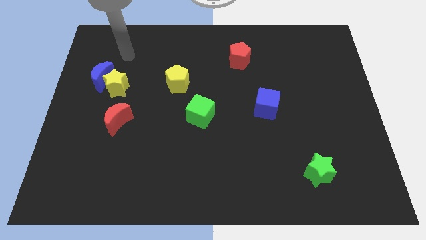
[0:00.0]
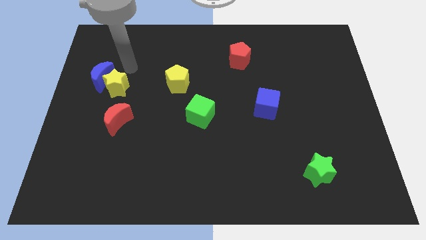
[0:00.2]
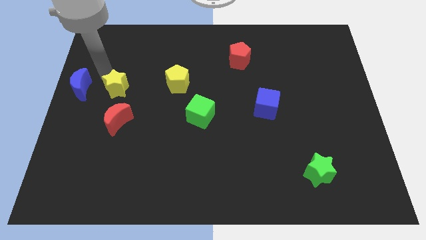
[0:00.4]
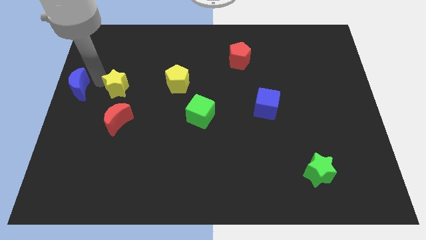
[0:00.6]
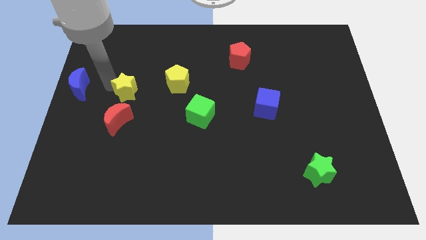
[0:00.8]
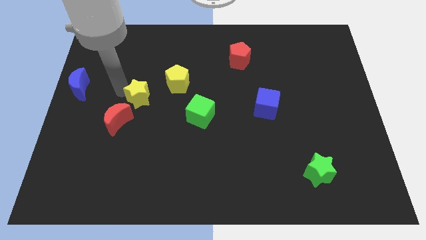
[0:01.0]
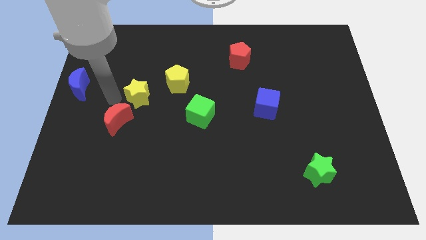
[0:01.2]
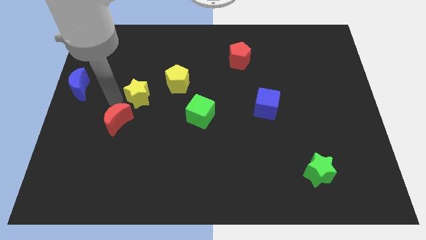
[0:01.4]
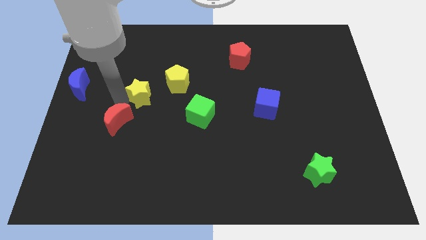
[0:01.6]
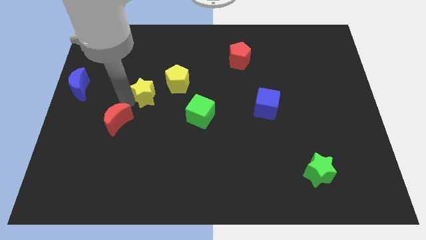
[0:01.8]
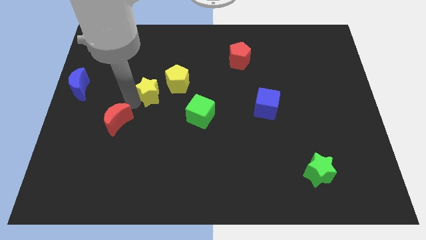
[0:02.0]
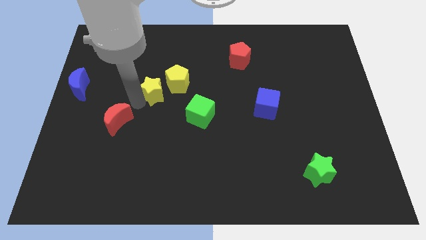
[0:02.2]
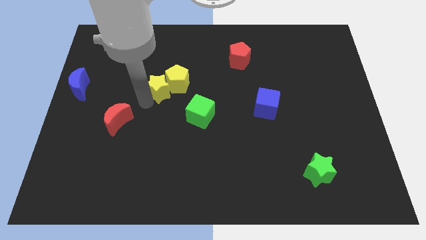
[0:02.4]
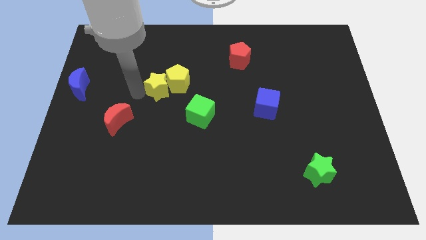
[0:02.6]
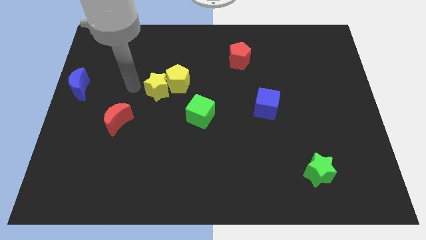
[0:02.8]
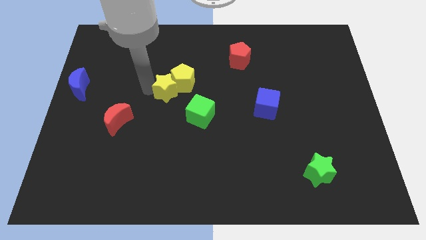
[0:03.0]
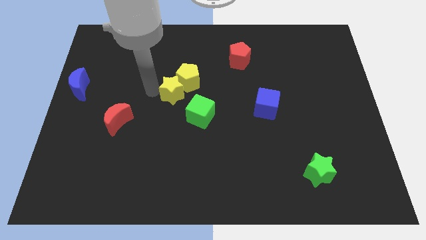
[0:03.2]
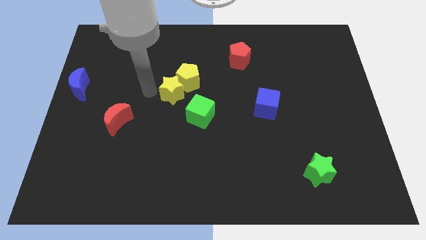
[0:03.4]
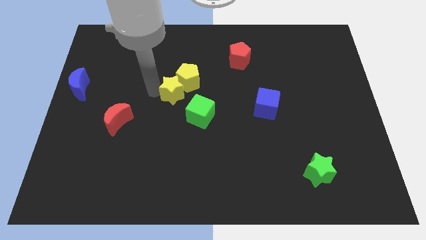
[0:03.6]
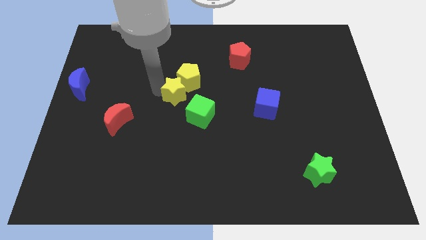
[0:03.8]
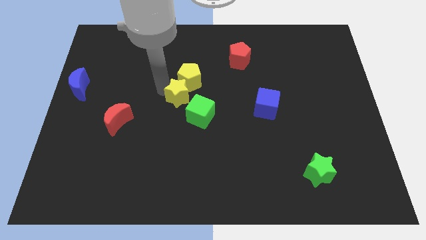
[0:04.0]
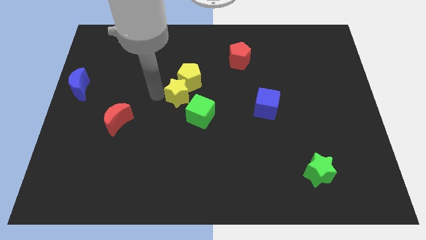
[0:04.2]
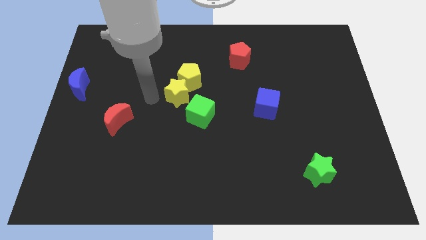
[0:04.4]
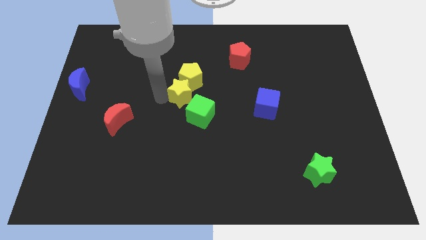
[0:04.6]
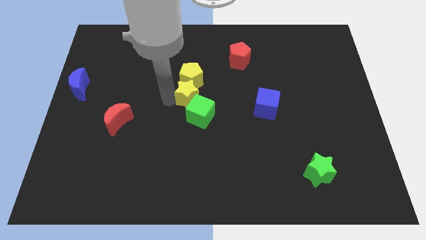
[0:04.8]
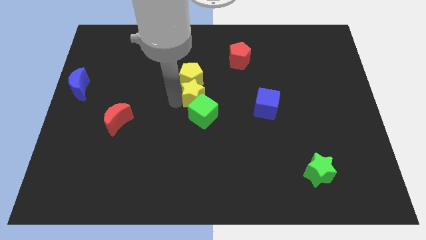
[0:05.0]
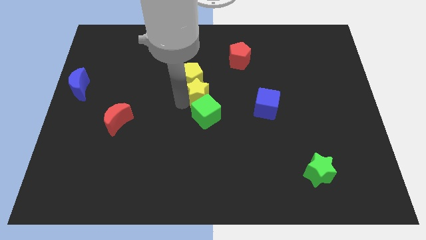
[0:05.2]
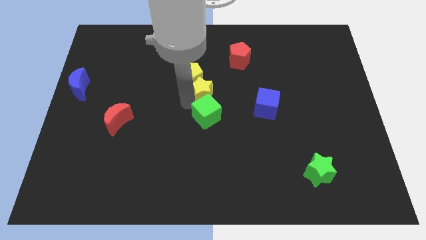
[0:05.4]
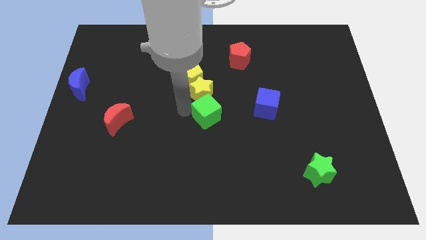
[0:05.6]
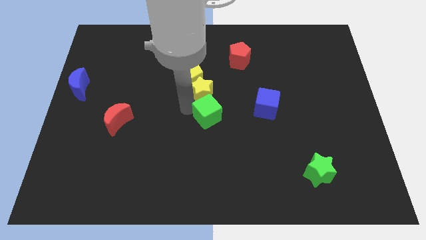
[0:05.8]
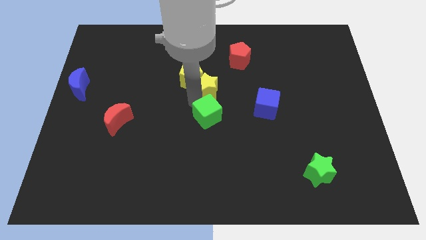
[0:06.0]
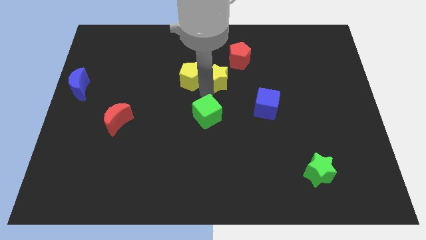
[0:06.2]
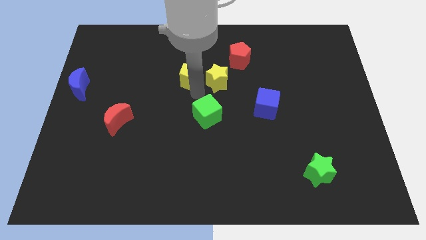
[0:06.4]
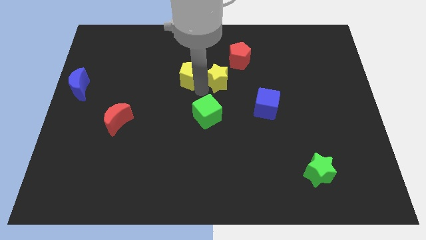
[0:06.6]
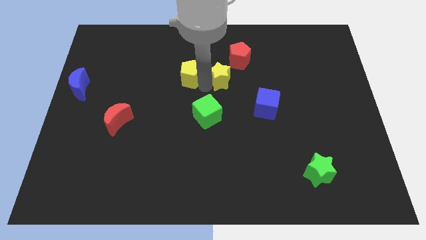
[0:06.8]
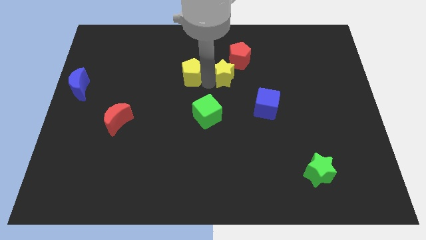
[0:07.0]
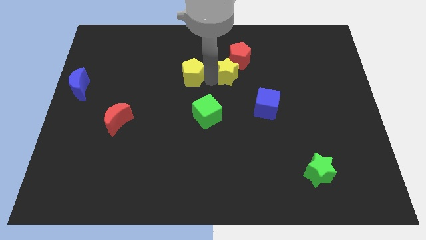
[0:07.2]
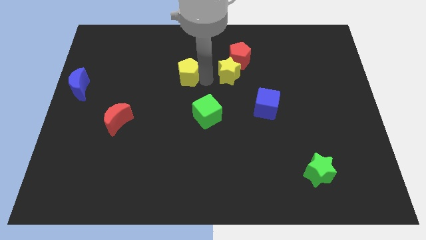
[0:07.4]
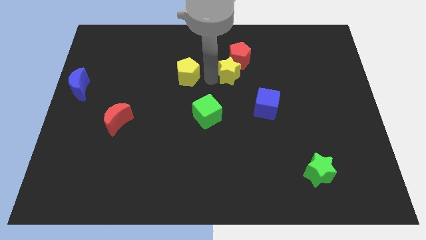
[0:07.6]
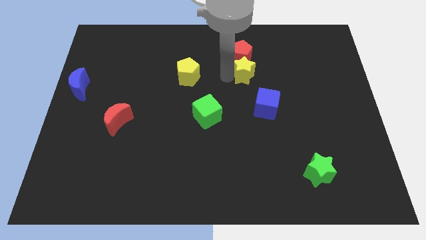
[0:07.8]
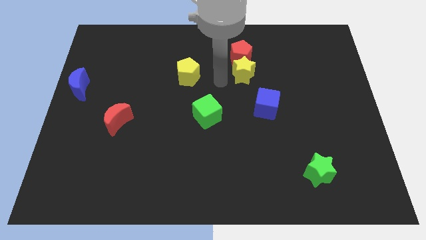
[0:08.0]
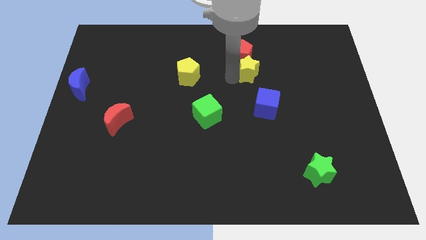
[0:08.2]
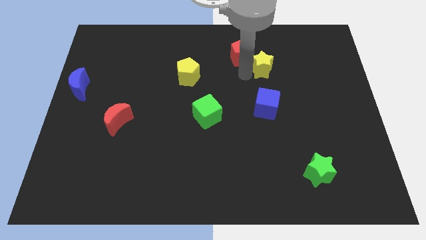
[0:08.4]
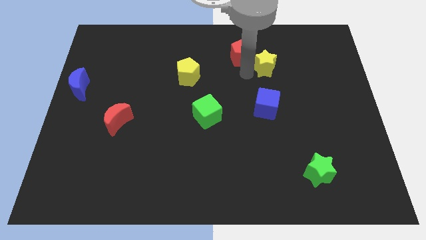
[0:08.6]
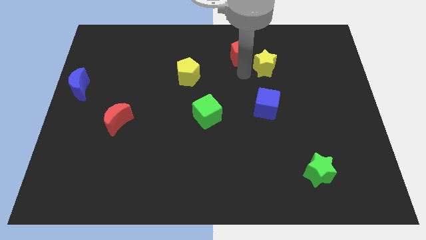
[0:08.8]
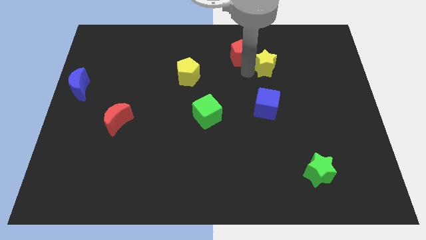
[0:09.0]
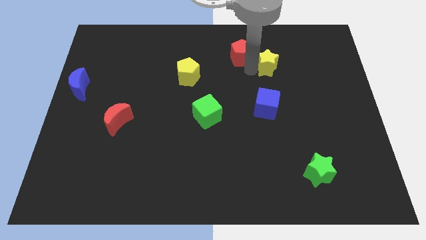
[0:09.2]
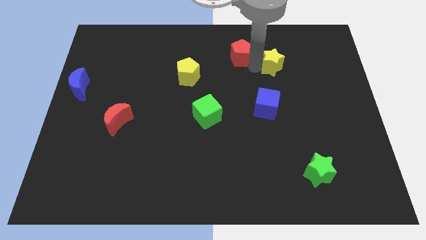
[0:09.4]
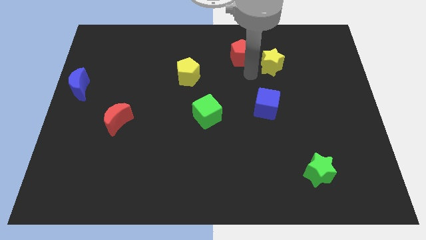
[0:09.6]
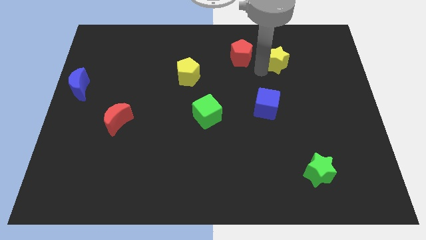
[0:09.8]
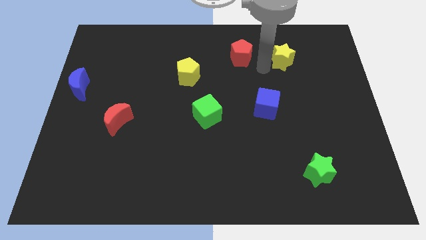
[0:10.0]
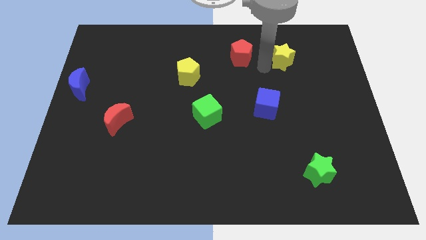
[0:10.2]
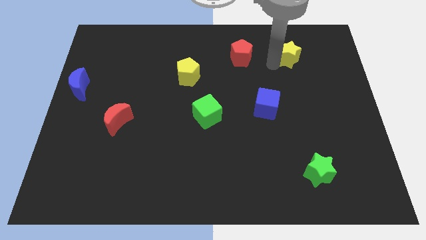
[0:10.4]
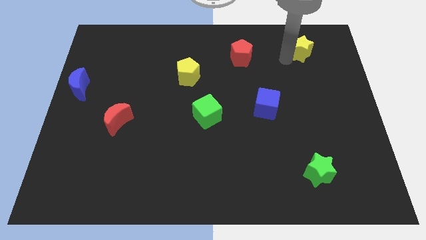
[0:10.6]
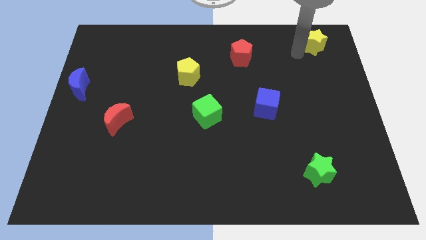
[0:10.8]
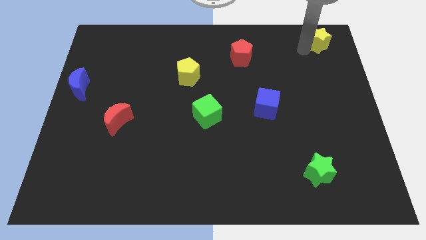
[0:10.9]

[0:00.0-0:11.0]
move the yellow star to the top right of the board
